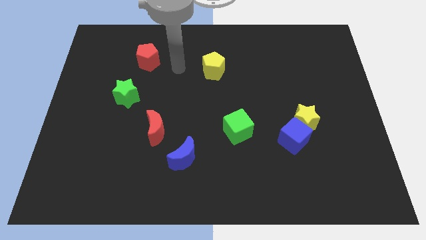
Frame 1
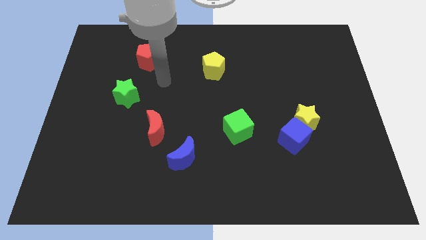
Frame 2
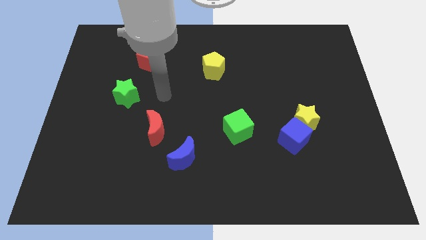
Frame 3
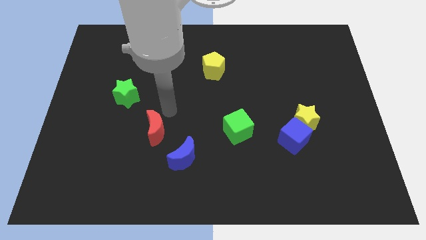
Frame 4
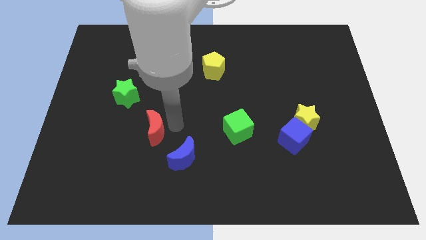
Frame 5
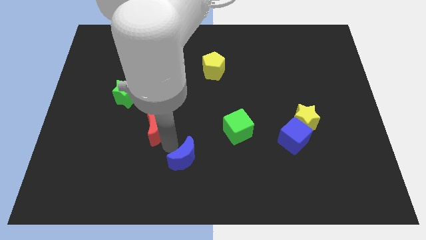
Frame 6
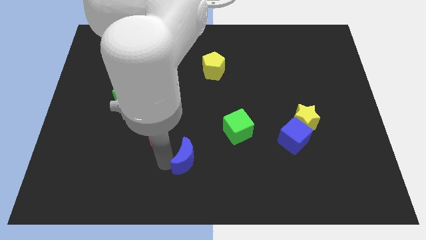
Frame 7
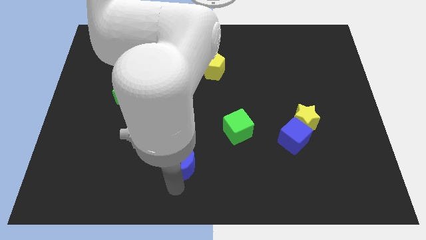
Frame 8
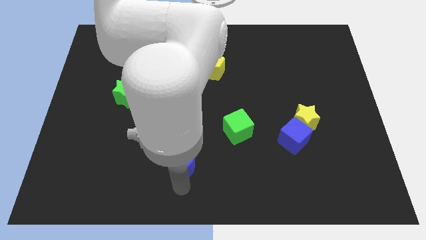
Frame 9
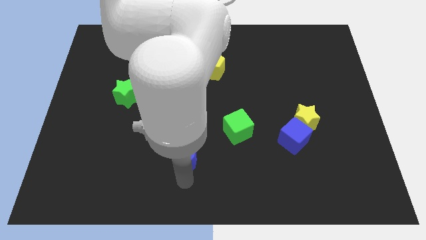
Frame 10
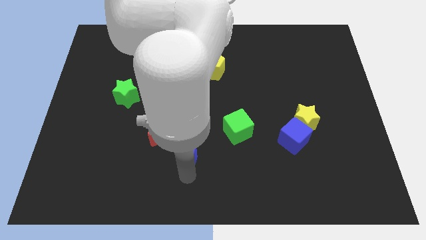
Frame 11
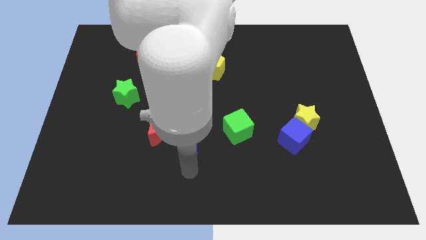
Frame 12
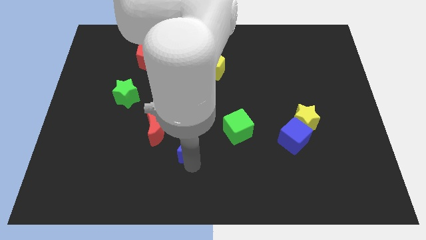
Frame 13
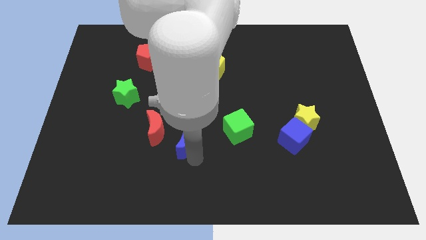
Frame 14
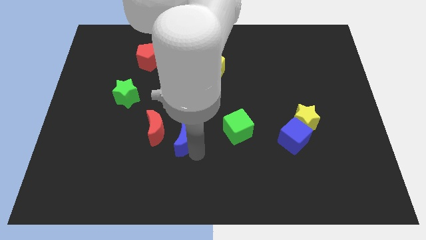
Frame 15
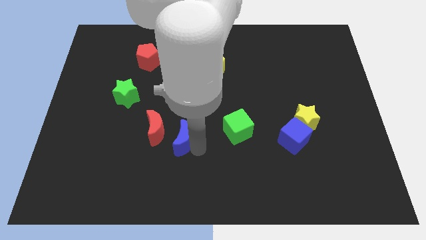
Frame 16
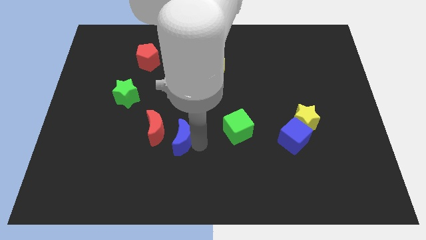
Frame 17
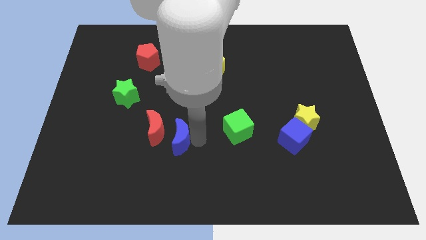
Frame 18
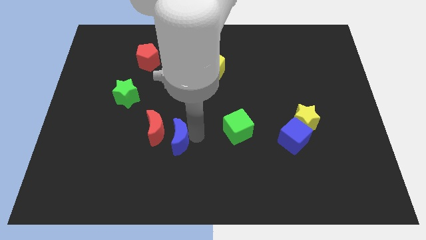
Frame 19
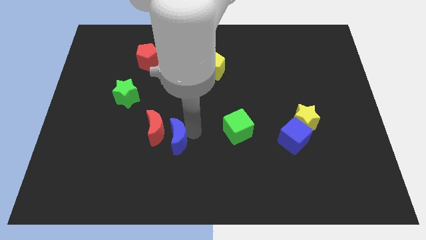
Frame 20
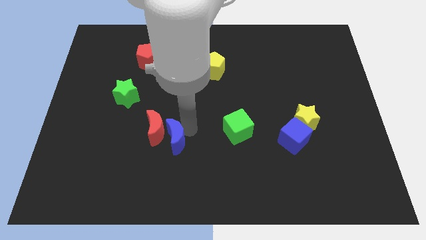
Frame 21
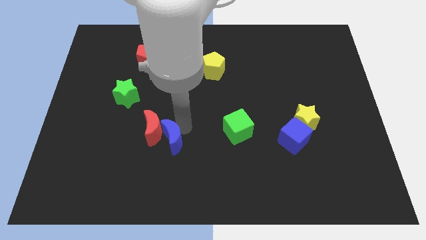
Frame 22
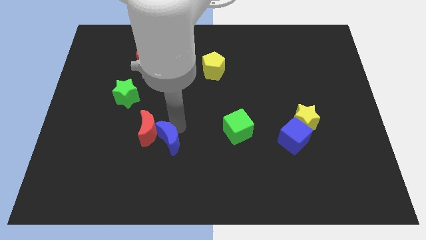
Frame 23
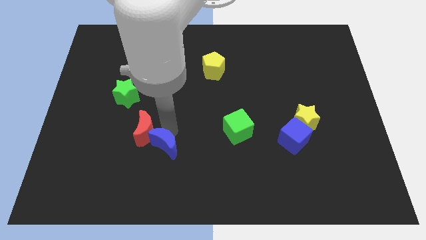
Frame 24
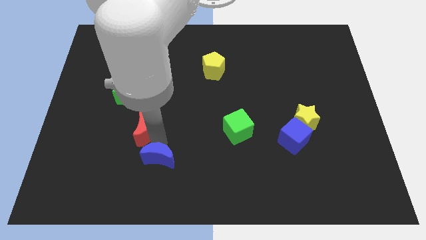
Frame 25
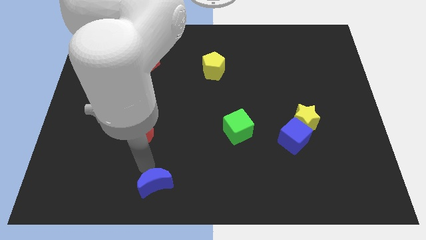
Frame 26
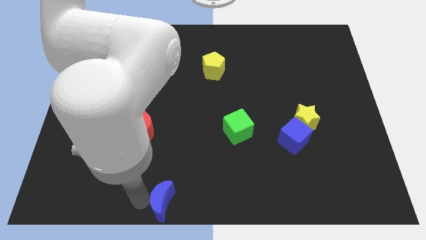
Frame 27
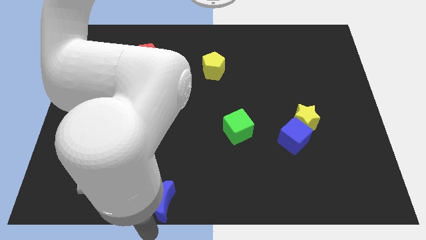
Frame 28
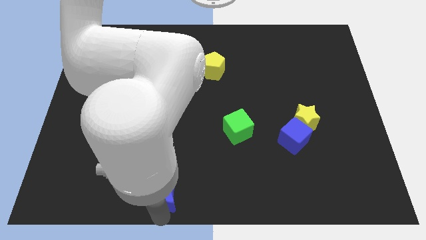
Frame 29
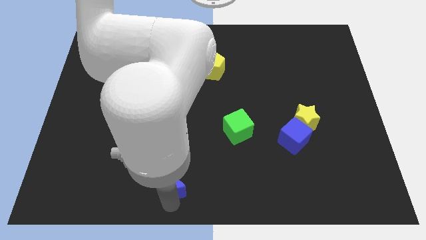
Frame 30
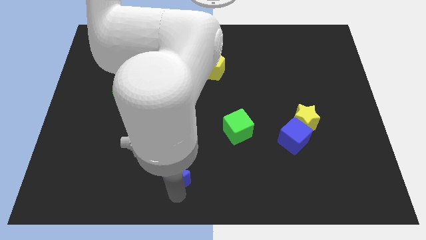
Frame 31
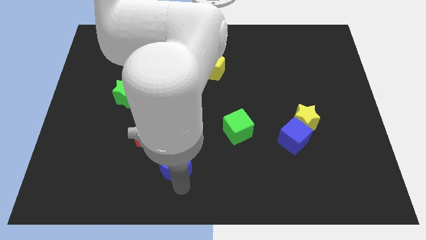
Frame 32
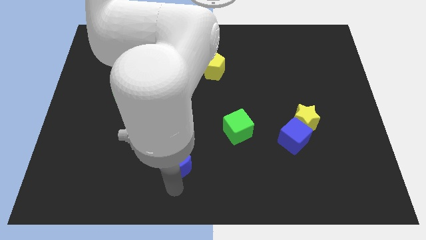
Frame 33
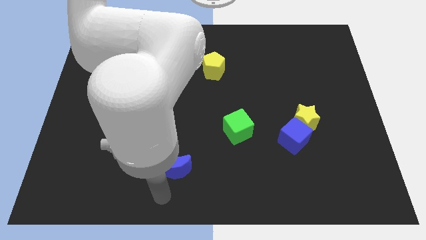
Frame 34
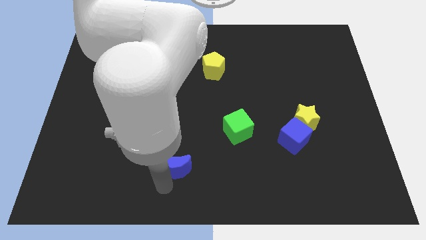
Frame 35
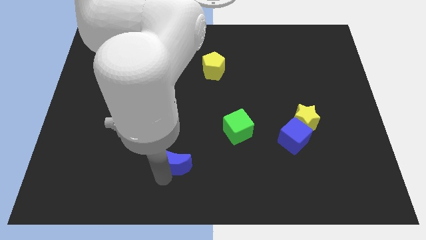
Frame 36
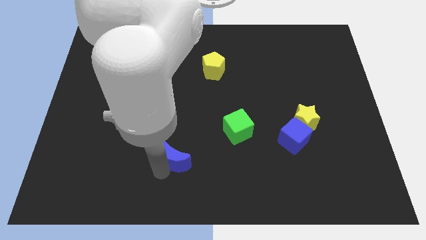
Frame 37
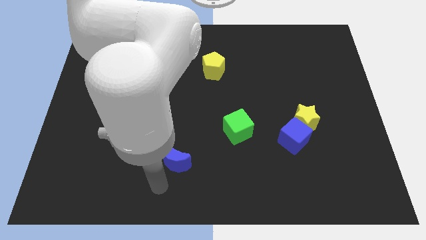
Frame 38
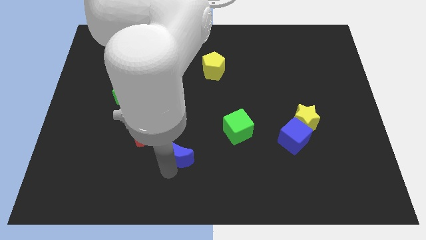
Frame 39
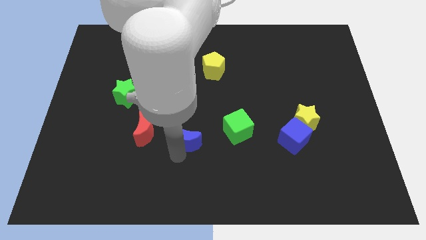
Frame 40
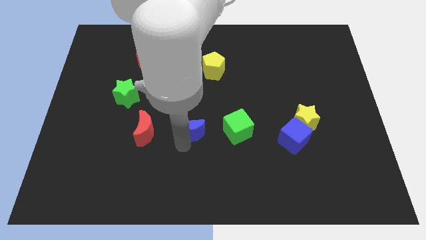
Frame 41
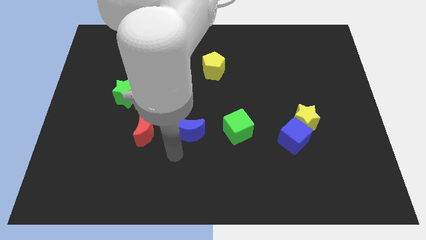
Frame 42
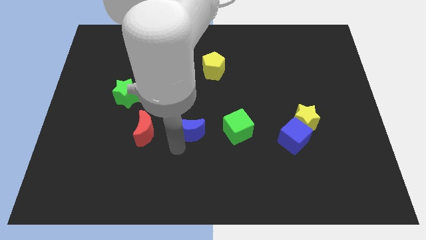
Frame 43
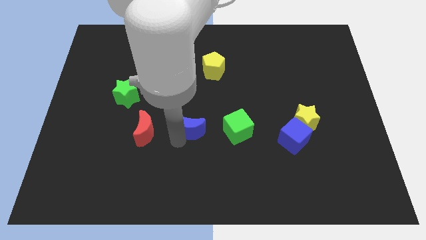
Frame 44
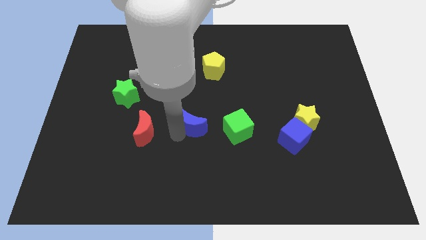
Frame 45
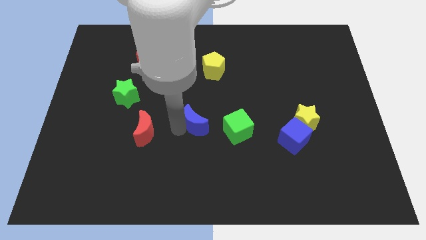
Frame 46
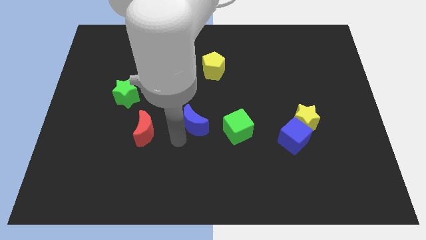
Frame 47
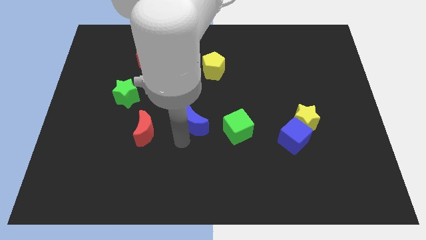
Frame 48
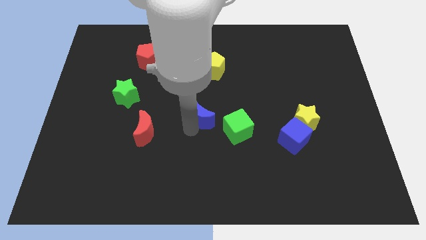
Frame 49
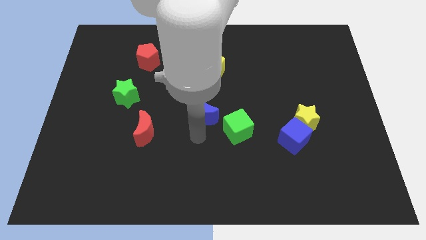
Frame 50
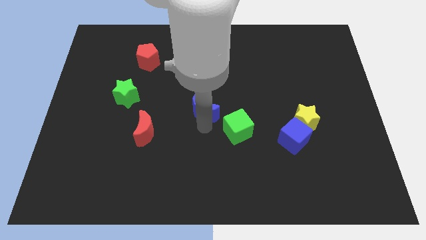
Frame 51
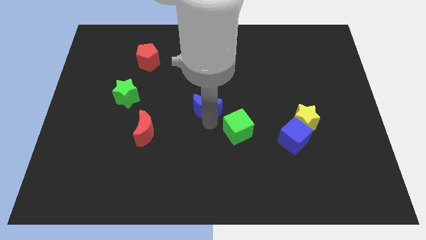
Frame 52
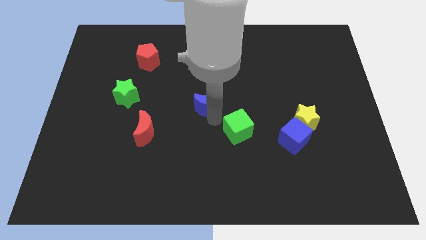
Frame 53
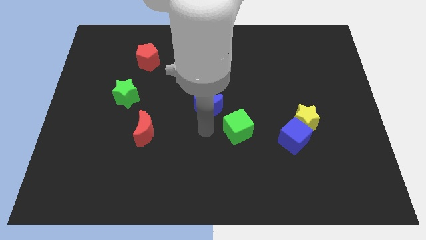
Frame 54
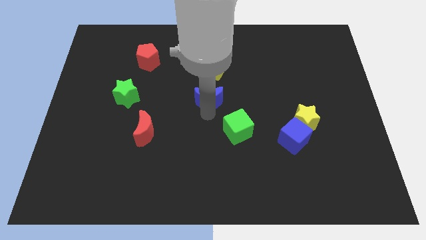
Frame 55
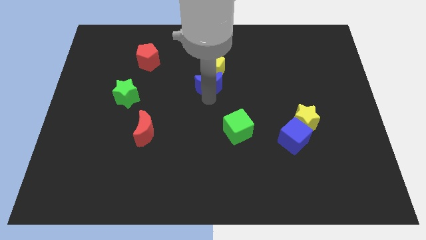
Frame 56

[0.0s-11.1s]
push the blue moon towards the yellow pentagon
